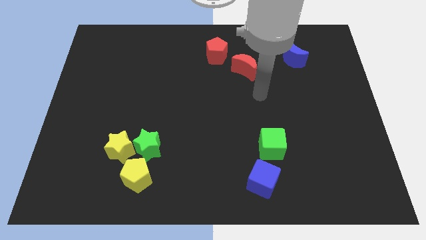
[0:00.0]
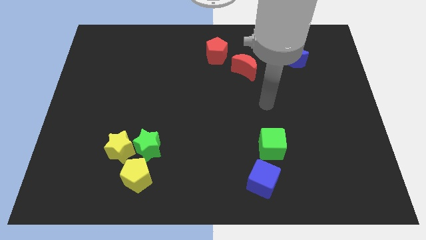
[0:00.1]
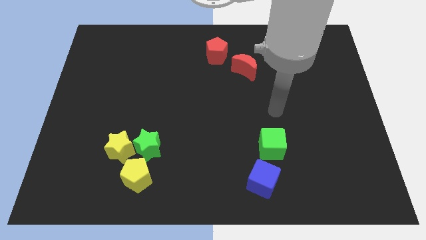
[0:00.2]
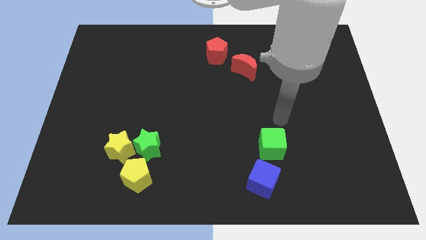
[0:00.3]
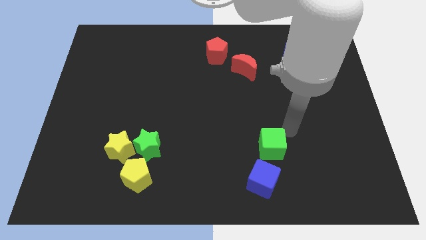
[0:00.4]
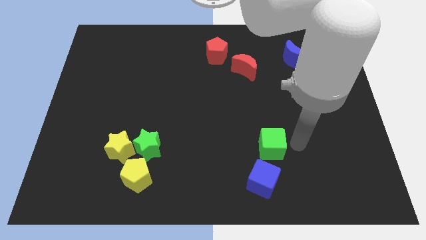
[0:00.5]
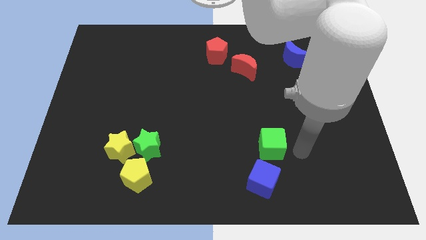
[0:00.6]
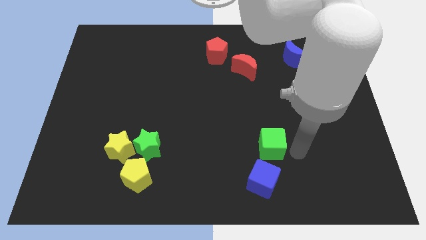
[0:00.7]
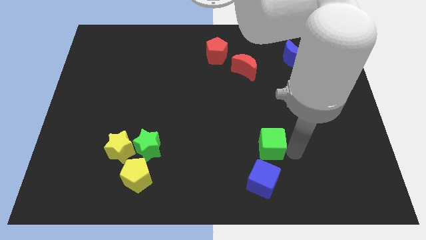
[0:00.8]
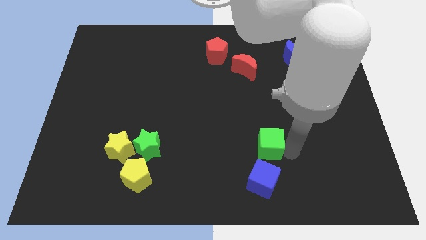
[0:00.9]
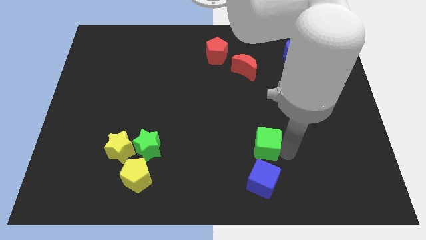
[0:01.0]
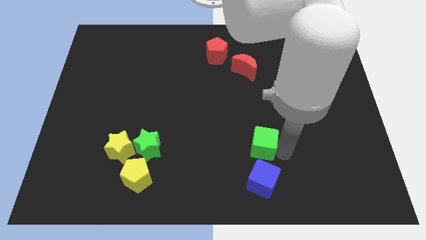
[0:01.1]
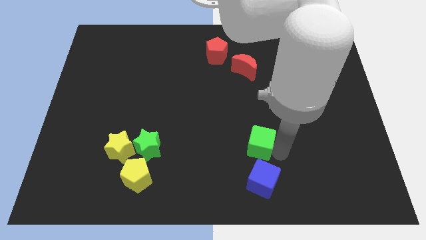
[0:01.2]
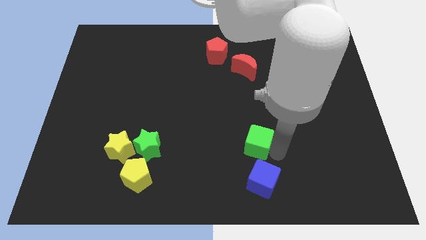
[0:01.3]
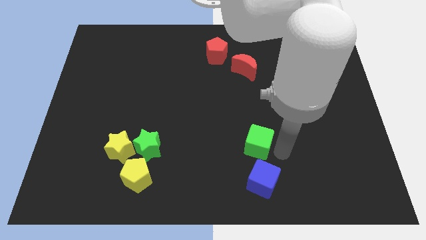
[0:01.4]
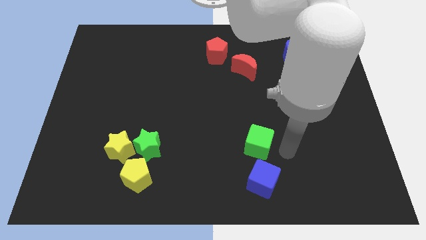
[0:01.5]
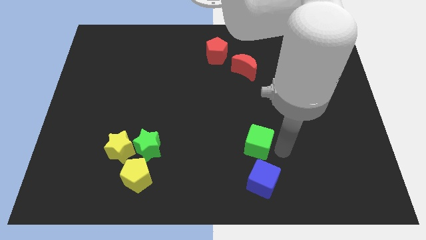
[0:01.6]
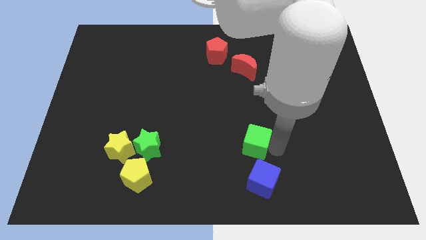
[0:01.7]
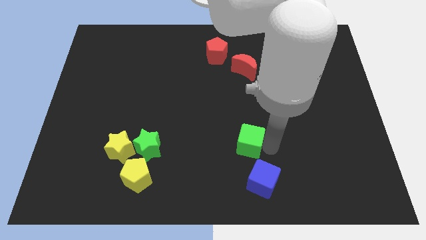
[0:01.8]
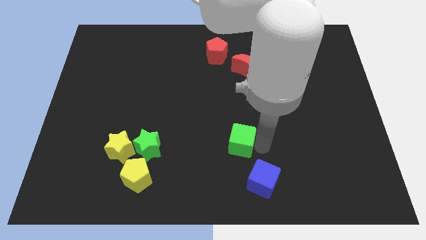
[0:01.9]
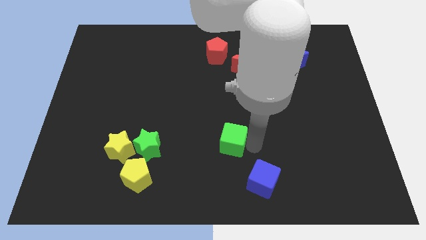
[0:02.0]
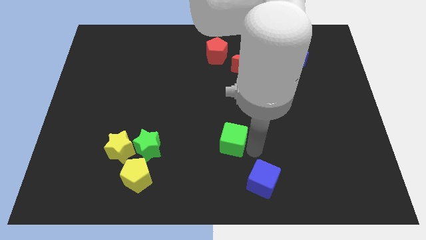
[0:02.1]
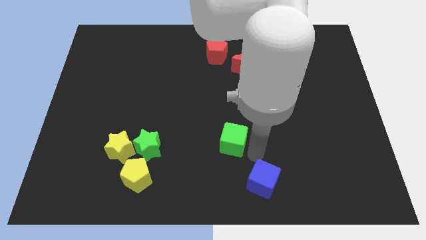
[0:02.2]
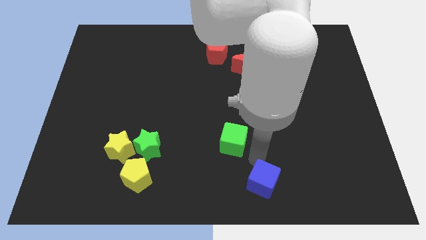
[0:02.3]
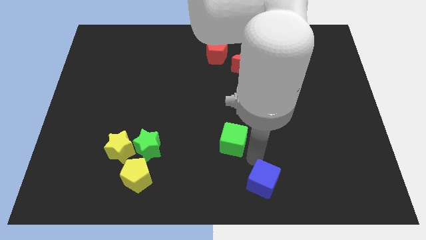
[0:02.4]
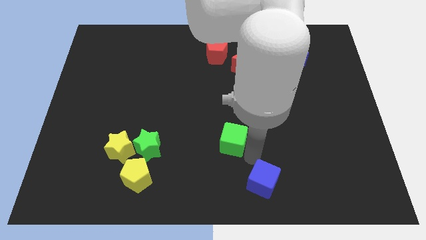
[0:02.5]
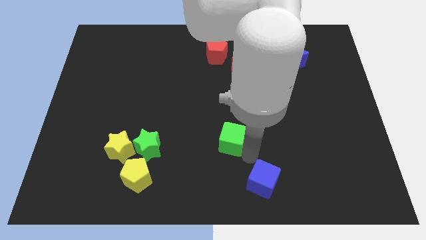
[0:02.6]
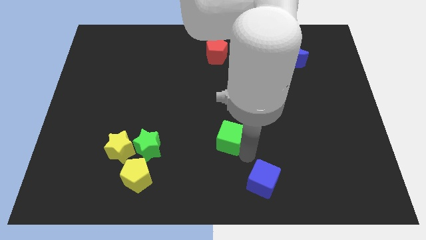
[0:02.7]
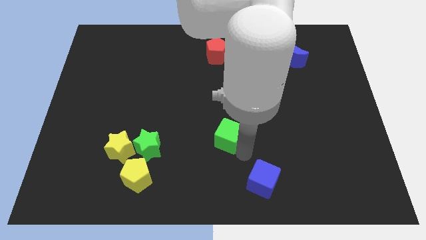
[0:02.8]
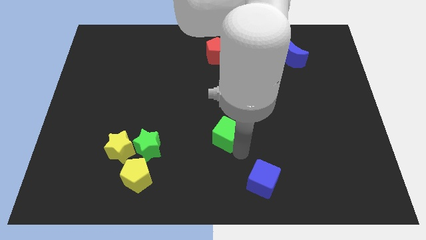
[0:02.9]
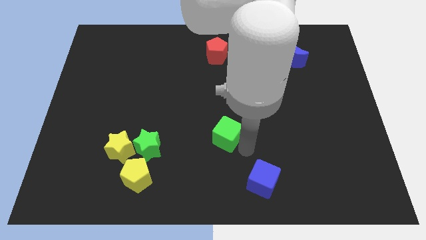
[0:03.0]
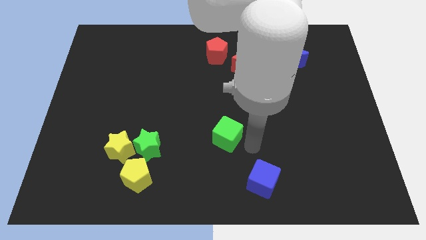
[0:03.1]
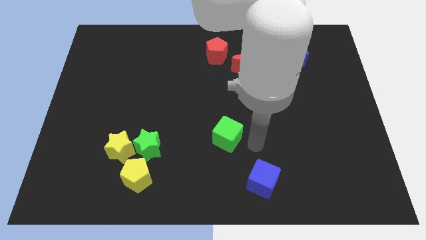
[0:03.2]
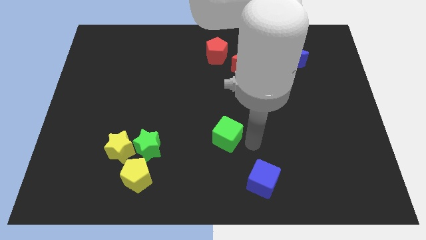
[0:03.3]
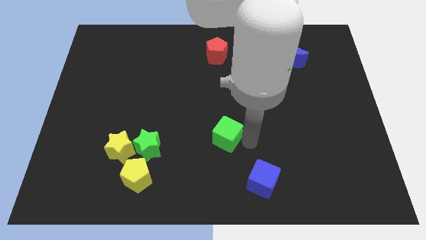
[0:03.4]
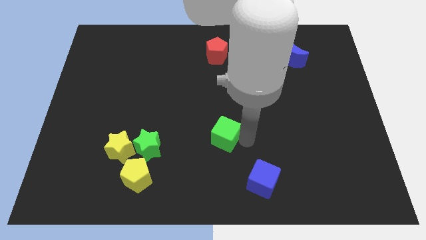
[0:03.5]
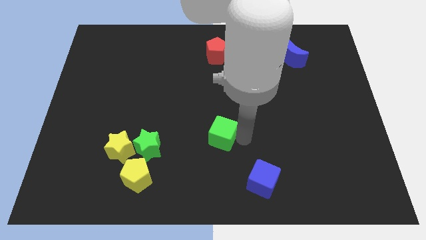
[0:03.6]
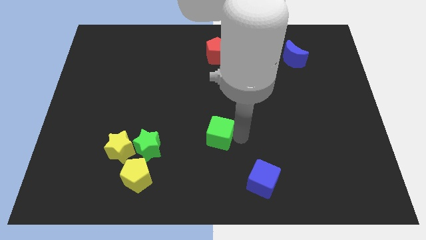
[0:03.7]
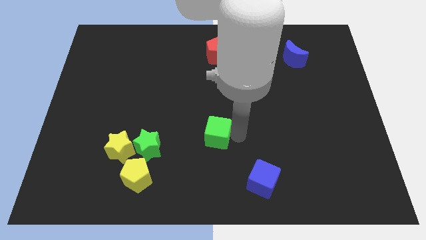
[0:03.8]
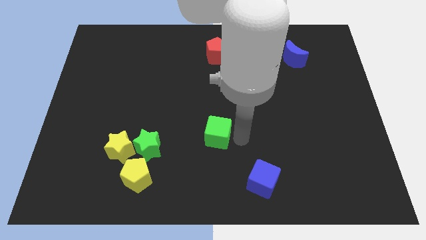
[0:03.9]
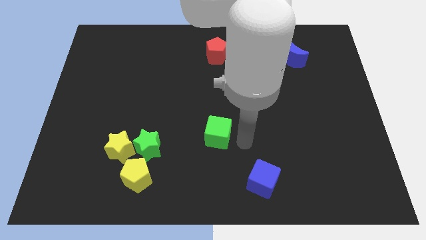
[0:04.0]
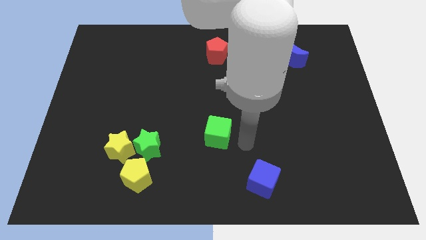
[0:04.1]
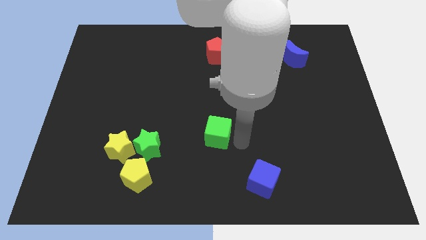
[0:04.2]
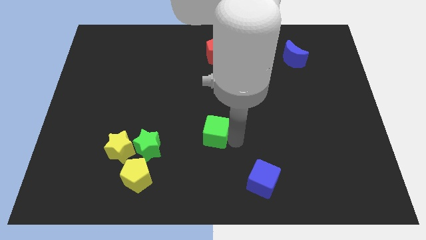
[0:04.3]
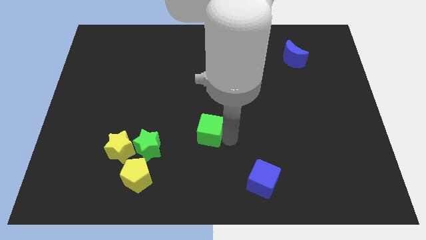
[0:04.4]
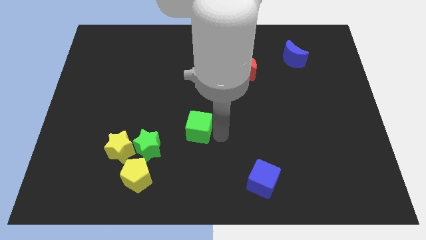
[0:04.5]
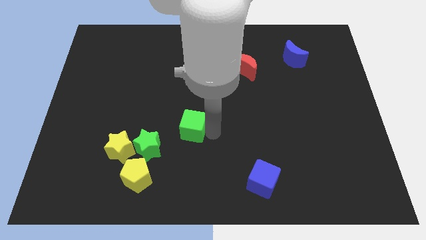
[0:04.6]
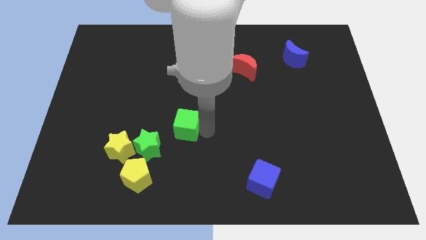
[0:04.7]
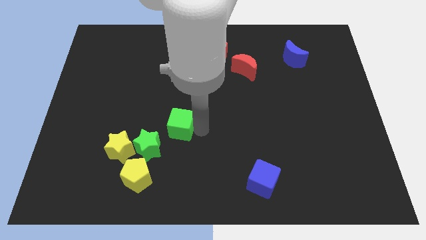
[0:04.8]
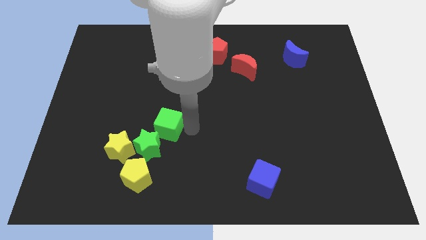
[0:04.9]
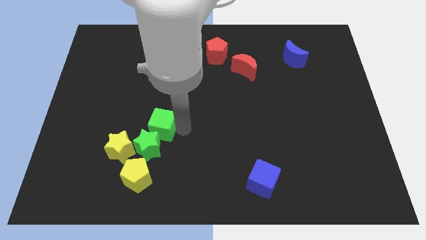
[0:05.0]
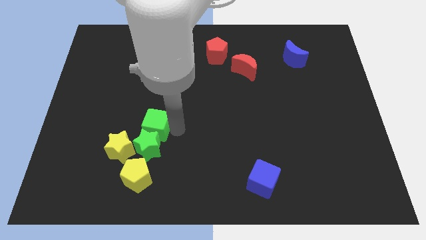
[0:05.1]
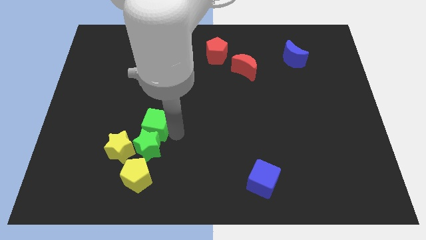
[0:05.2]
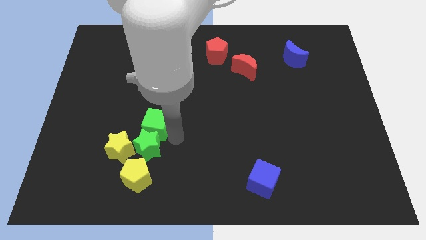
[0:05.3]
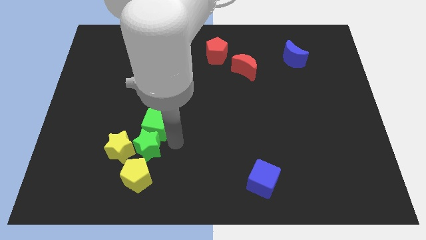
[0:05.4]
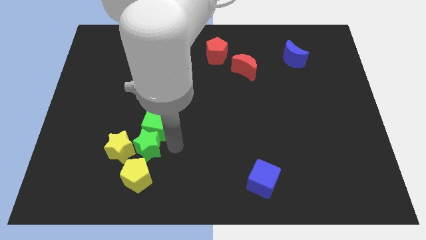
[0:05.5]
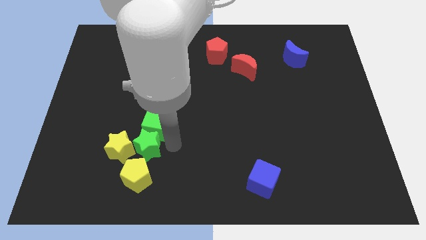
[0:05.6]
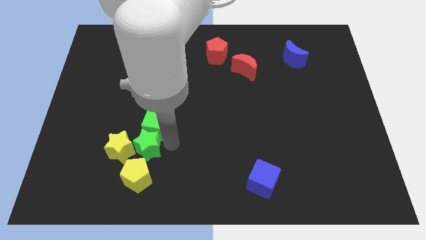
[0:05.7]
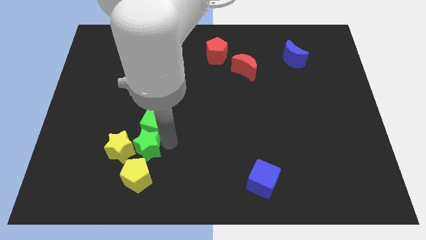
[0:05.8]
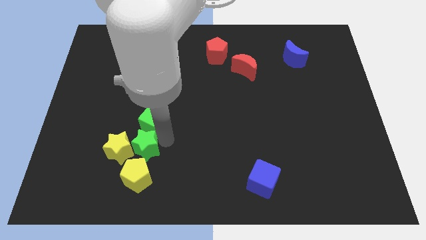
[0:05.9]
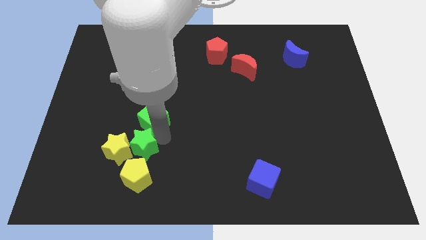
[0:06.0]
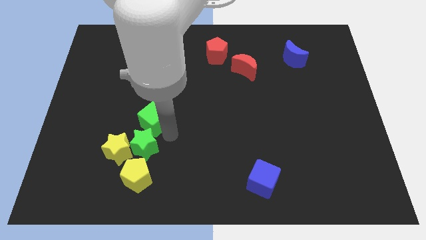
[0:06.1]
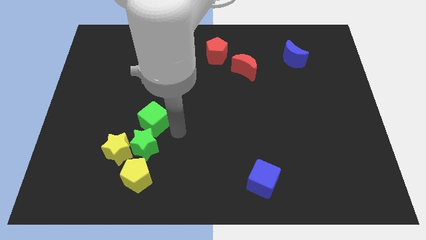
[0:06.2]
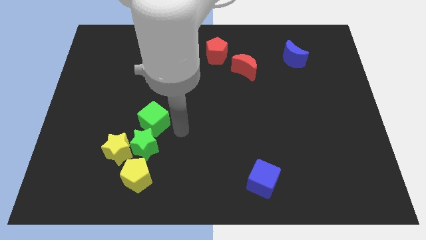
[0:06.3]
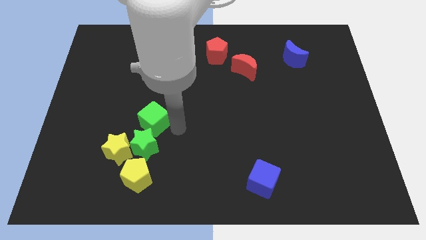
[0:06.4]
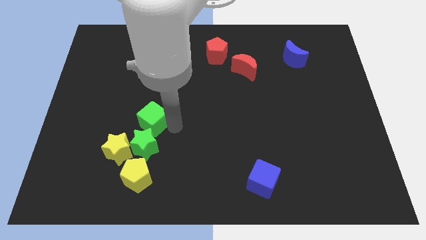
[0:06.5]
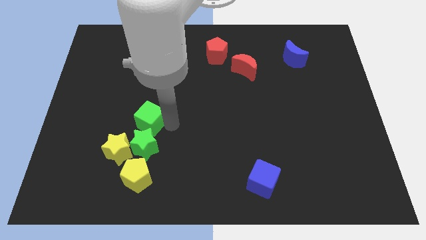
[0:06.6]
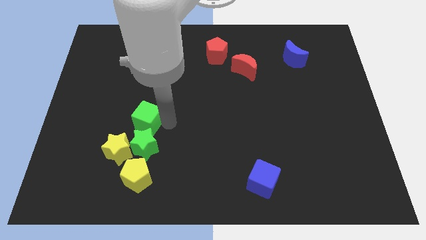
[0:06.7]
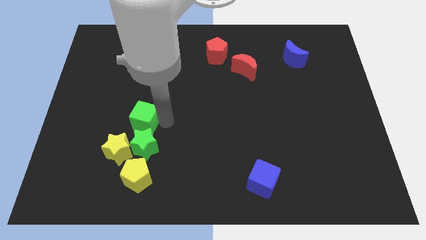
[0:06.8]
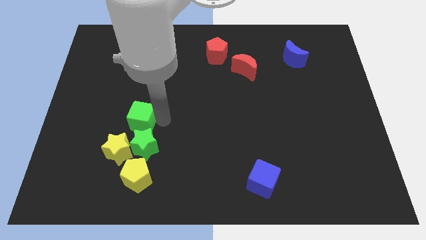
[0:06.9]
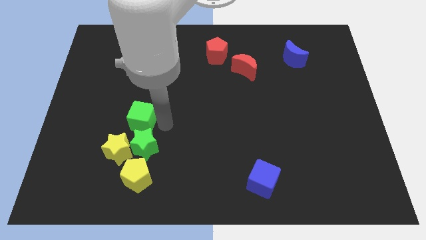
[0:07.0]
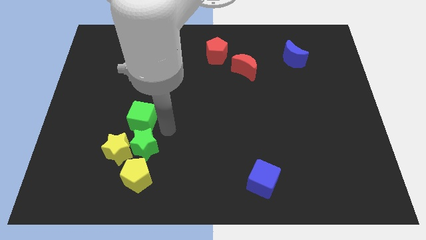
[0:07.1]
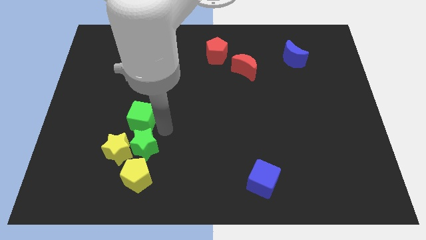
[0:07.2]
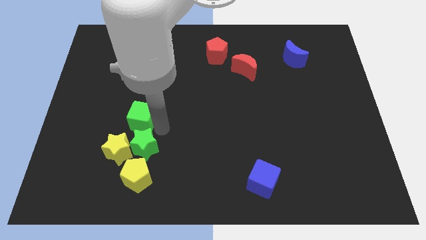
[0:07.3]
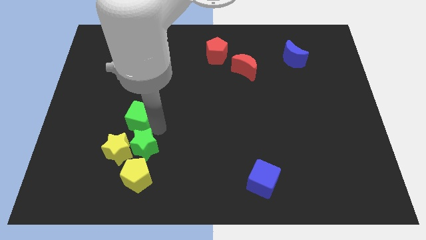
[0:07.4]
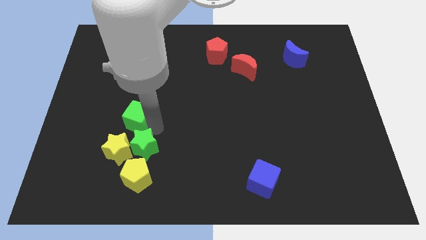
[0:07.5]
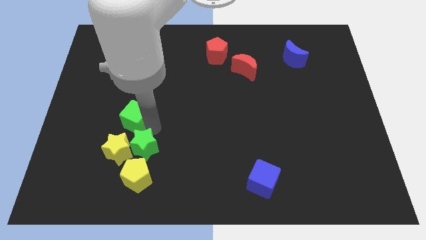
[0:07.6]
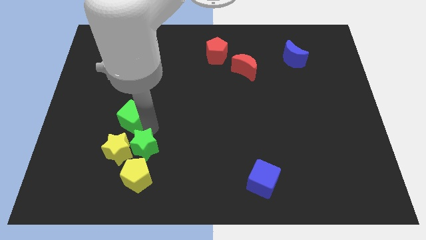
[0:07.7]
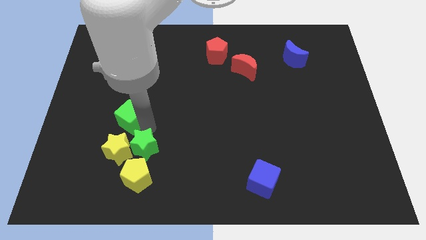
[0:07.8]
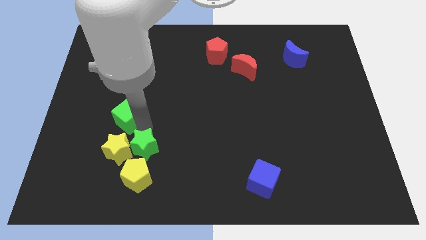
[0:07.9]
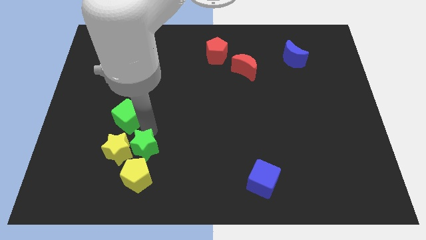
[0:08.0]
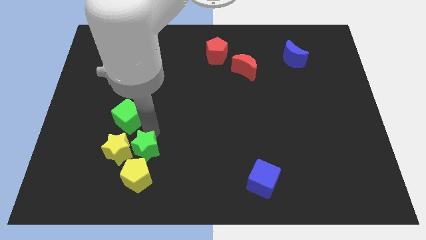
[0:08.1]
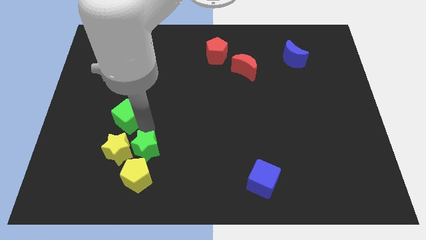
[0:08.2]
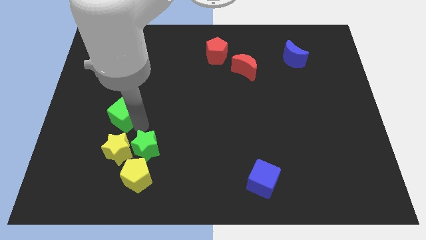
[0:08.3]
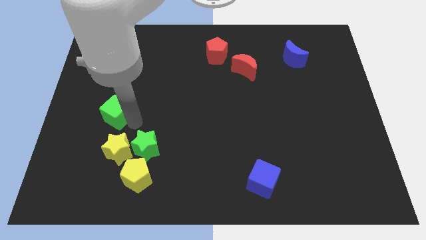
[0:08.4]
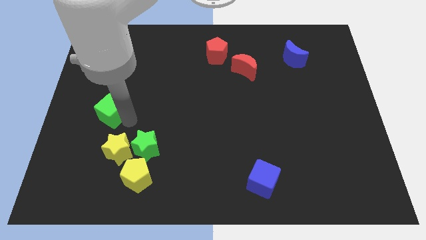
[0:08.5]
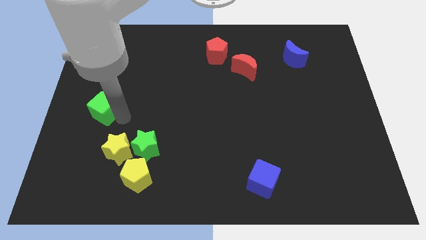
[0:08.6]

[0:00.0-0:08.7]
slide the green cube to the left side
